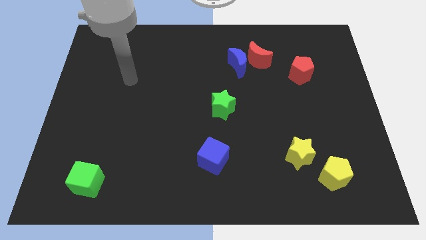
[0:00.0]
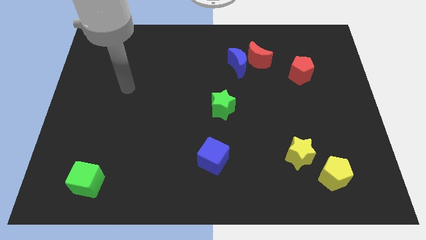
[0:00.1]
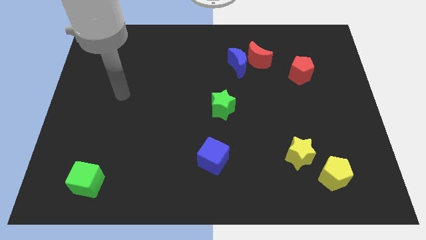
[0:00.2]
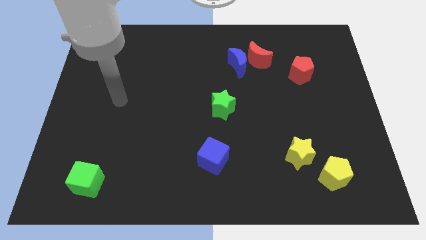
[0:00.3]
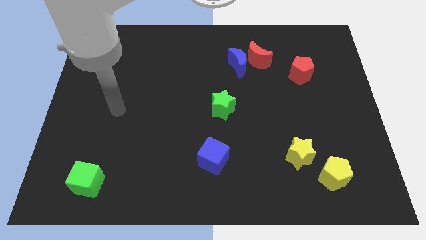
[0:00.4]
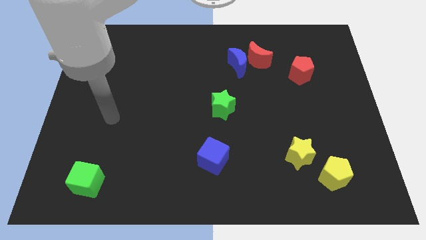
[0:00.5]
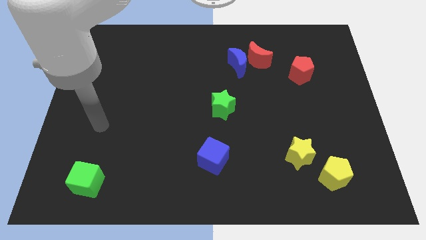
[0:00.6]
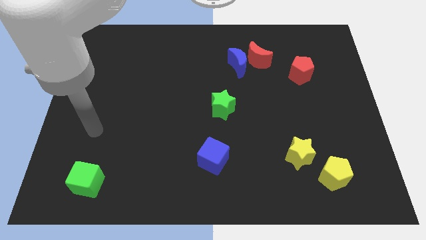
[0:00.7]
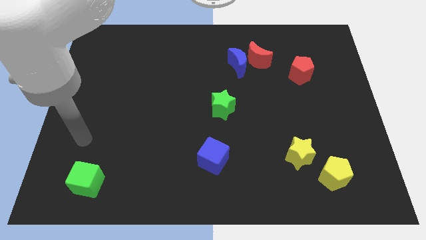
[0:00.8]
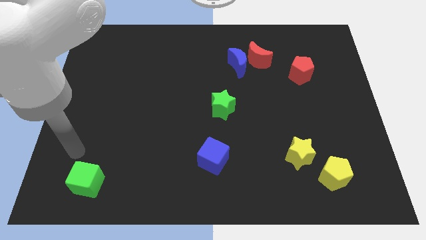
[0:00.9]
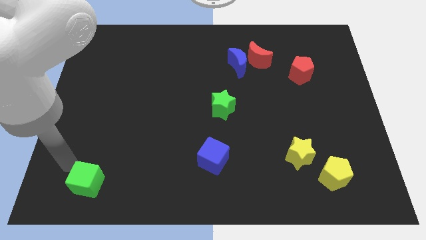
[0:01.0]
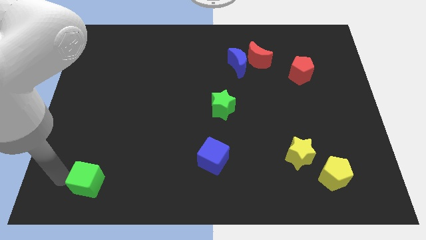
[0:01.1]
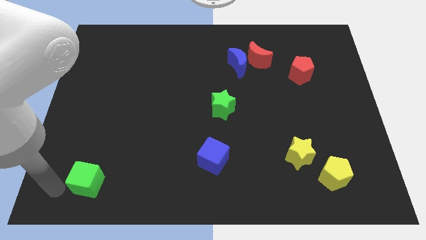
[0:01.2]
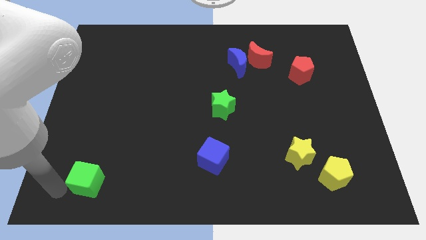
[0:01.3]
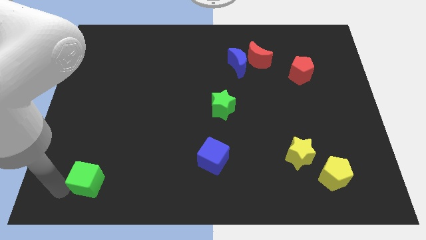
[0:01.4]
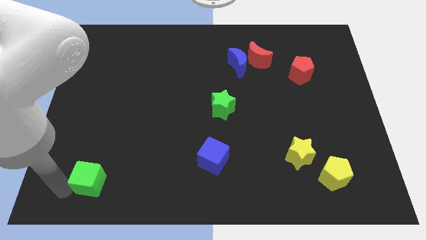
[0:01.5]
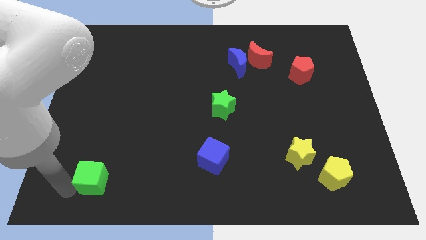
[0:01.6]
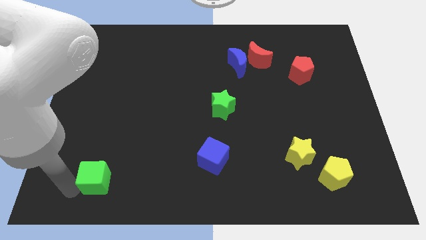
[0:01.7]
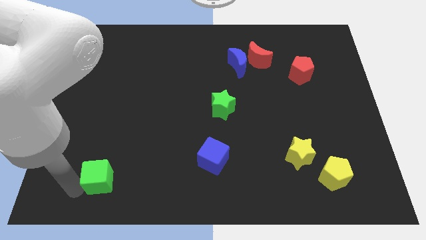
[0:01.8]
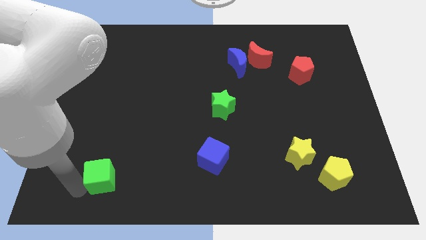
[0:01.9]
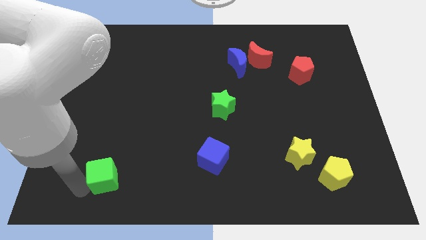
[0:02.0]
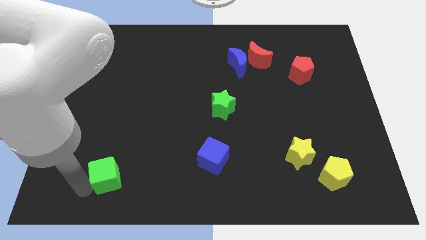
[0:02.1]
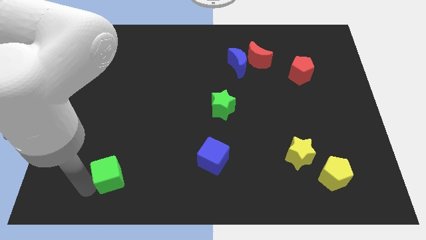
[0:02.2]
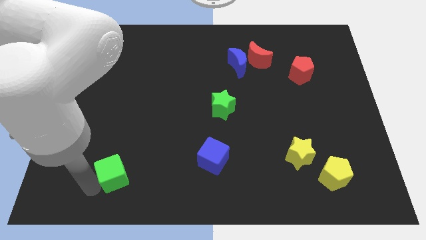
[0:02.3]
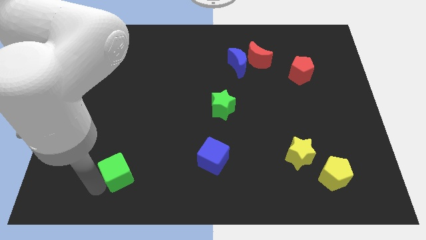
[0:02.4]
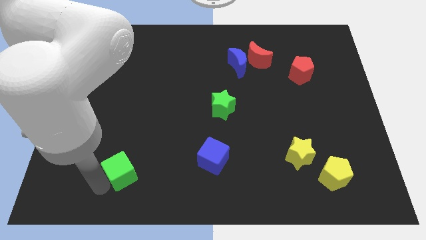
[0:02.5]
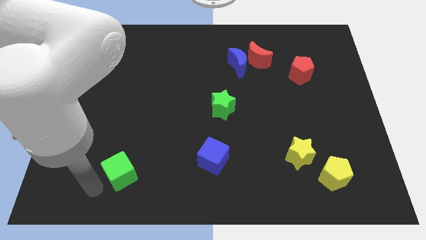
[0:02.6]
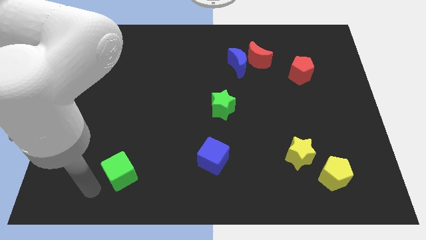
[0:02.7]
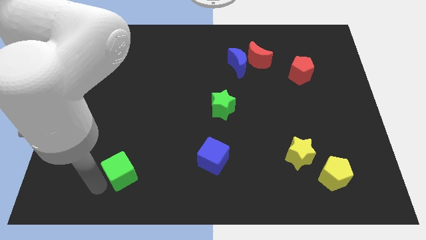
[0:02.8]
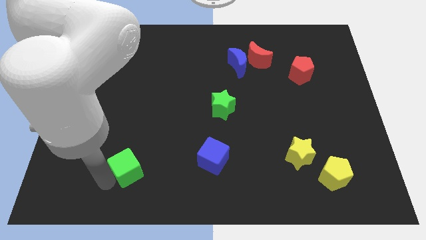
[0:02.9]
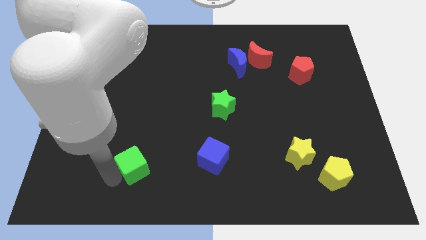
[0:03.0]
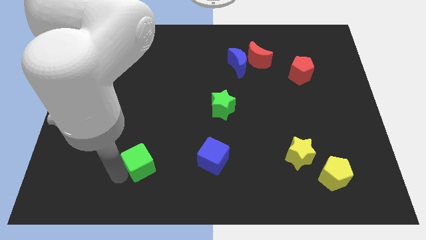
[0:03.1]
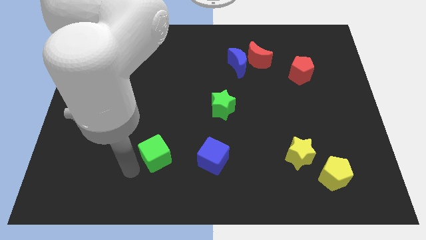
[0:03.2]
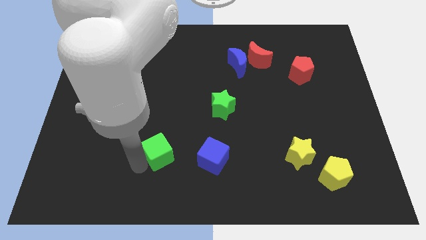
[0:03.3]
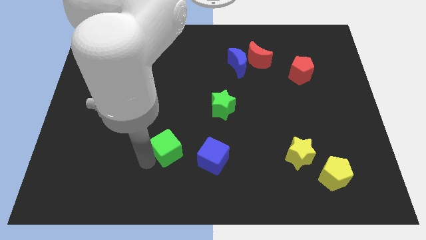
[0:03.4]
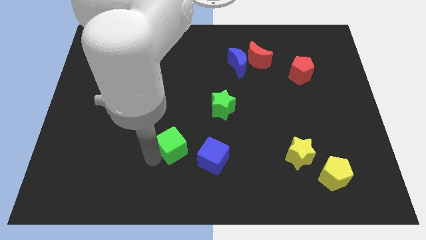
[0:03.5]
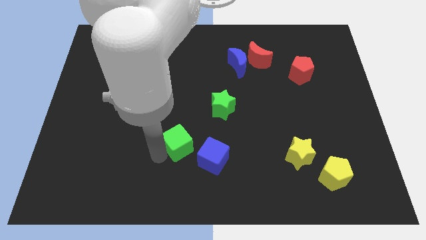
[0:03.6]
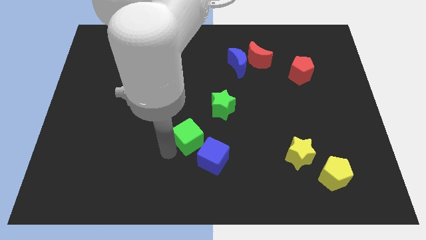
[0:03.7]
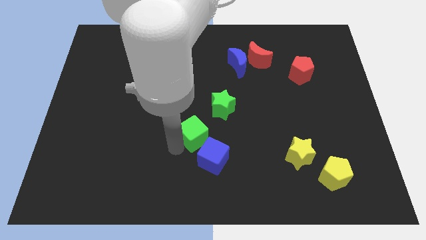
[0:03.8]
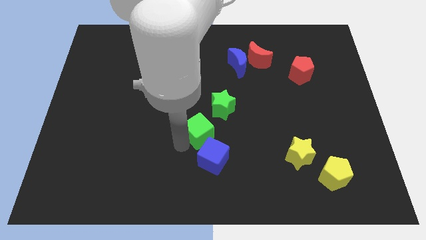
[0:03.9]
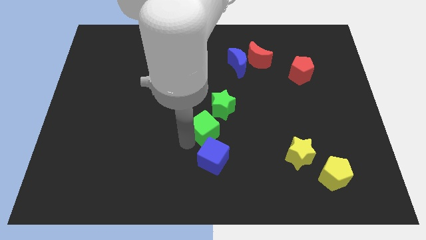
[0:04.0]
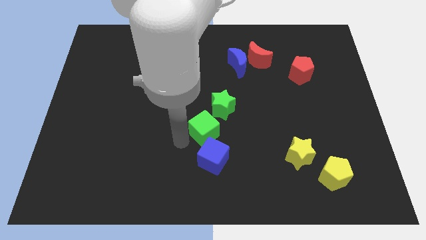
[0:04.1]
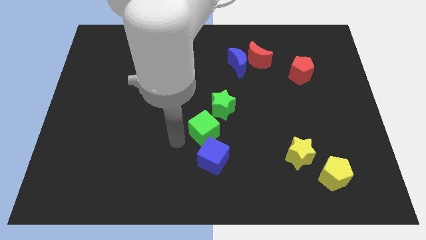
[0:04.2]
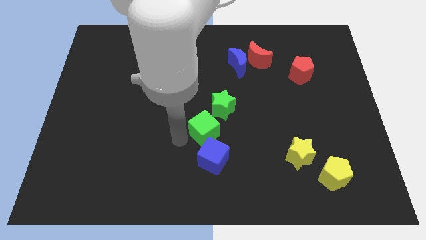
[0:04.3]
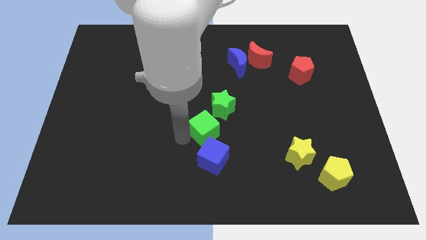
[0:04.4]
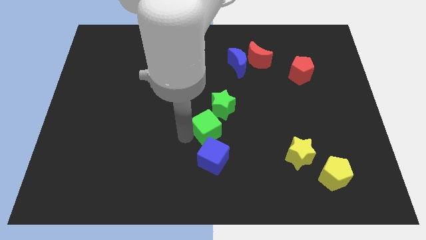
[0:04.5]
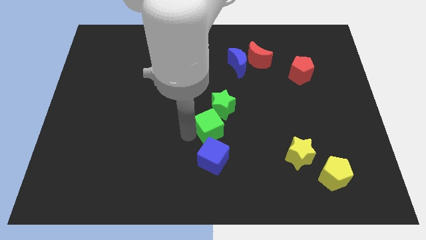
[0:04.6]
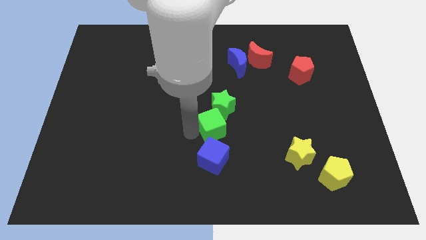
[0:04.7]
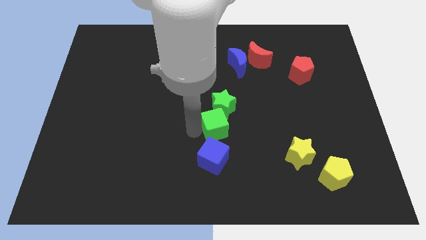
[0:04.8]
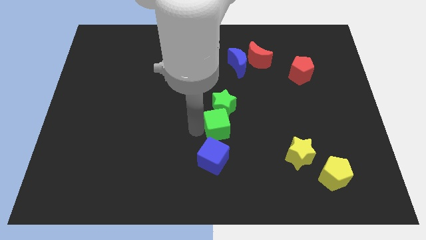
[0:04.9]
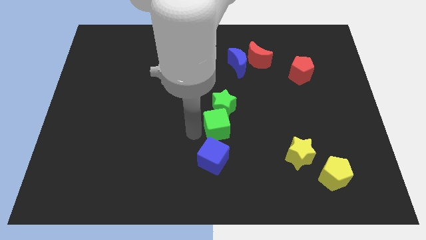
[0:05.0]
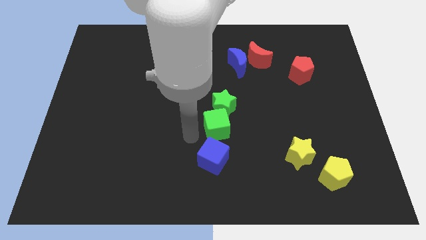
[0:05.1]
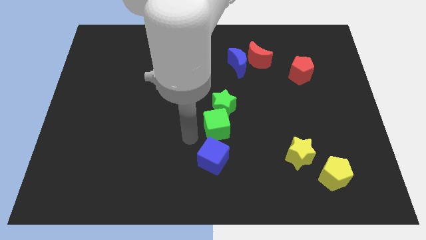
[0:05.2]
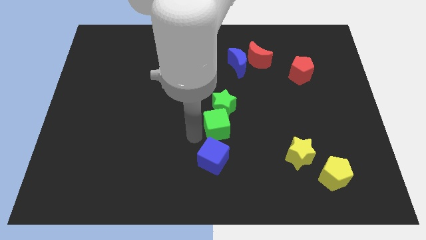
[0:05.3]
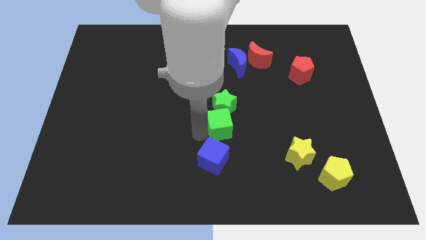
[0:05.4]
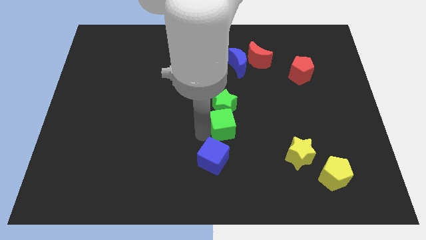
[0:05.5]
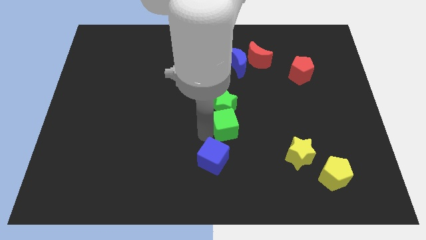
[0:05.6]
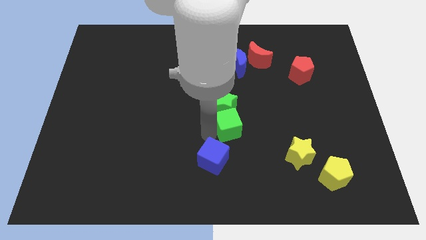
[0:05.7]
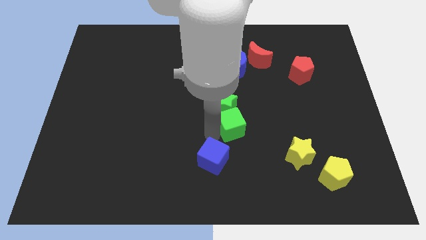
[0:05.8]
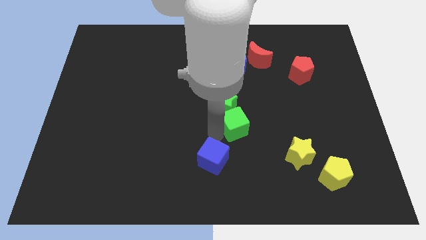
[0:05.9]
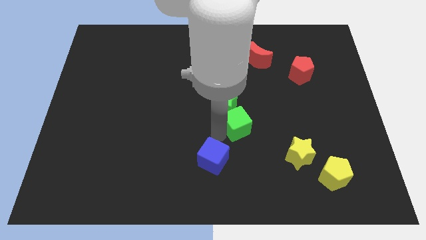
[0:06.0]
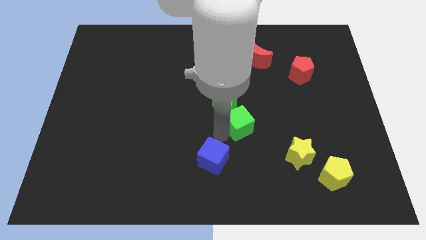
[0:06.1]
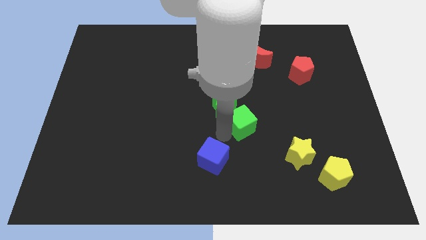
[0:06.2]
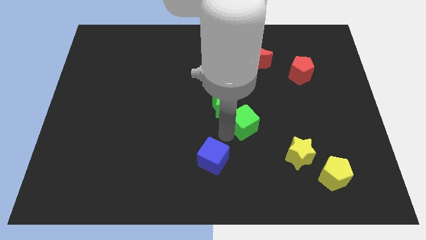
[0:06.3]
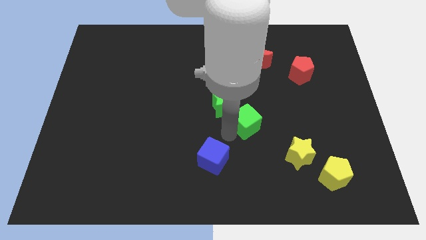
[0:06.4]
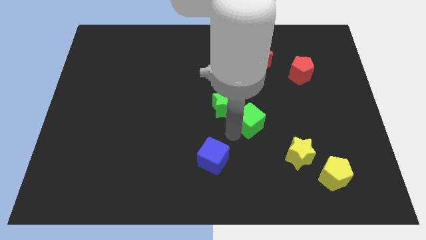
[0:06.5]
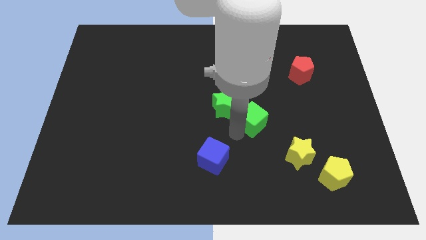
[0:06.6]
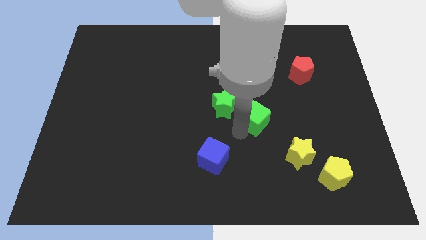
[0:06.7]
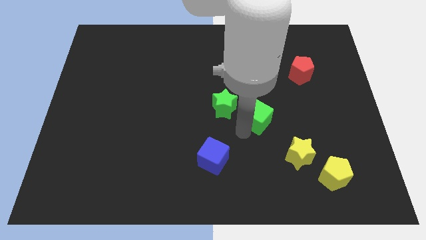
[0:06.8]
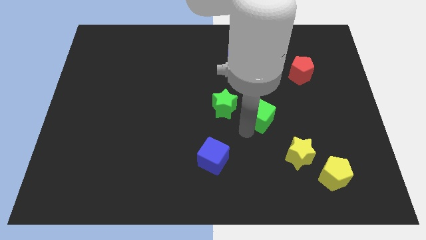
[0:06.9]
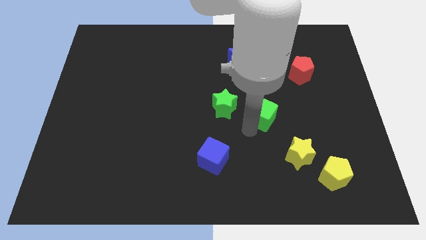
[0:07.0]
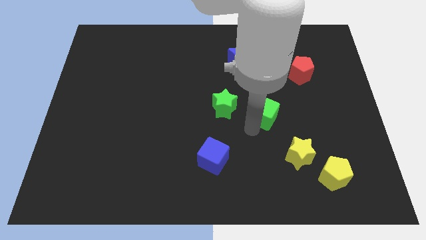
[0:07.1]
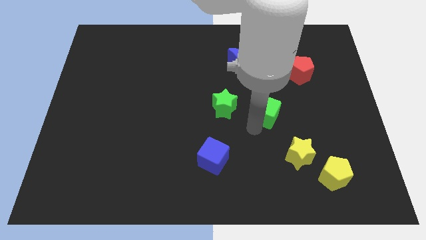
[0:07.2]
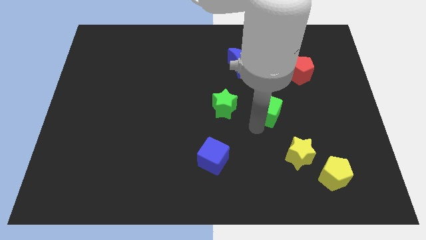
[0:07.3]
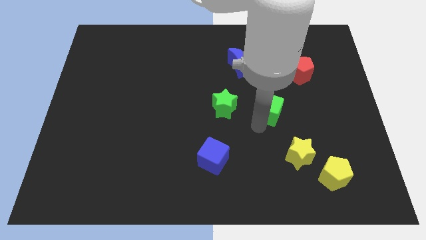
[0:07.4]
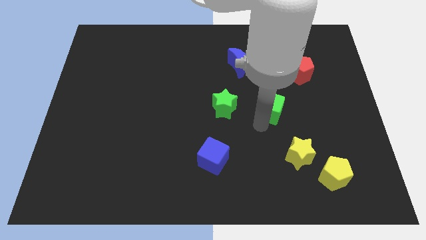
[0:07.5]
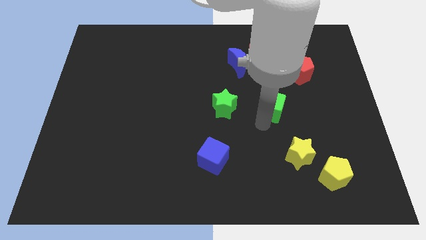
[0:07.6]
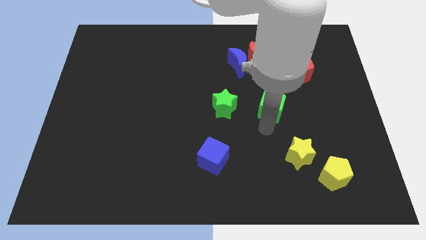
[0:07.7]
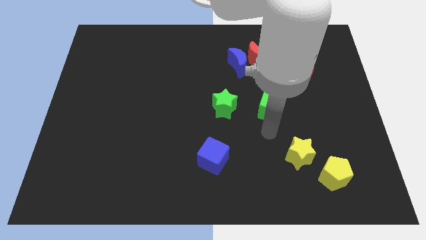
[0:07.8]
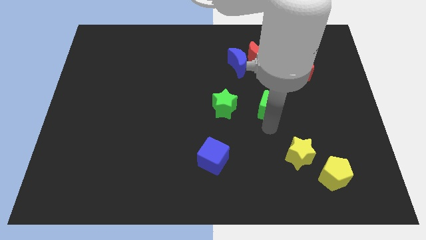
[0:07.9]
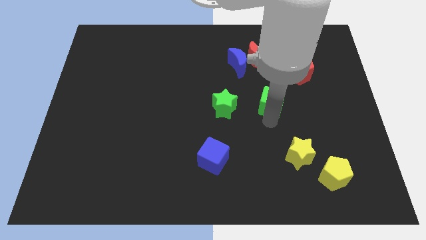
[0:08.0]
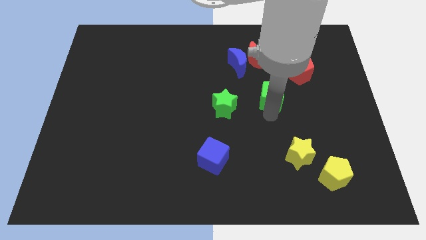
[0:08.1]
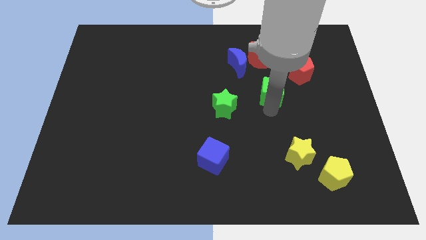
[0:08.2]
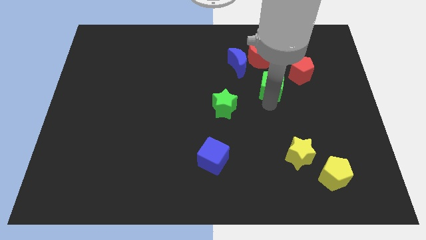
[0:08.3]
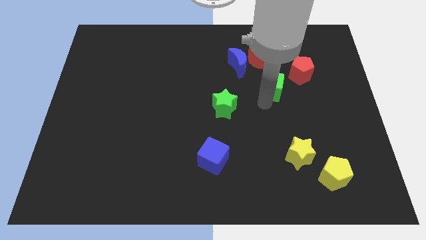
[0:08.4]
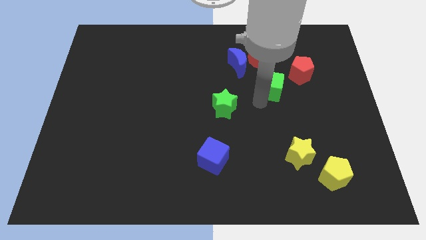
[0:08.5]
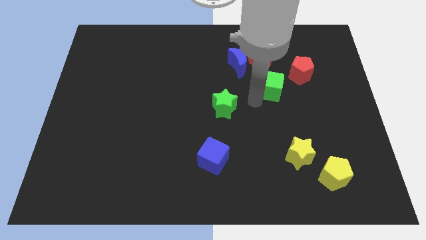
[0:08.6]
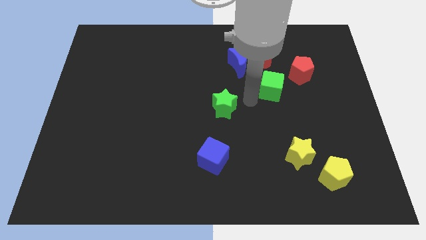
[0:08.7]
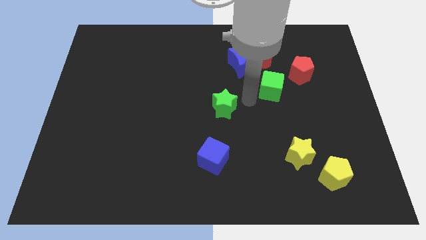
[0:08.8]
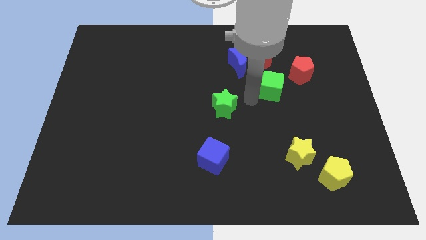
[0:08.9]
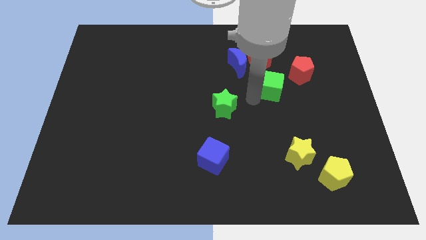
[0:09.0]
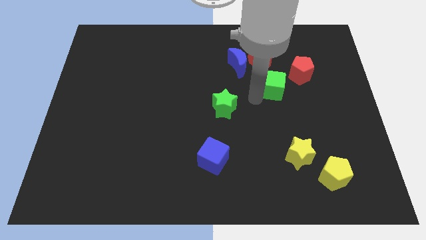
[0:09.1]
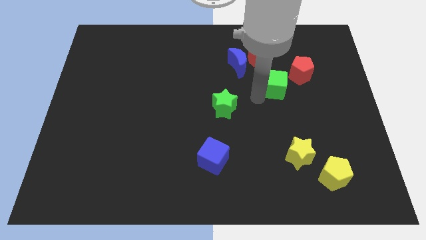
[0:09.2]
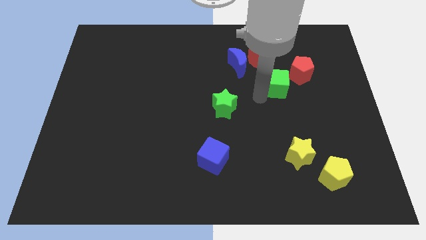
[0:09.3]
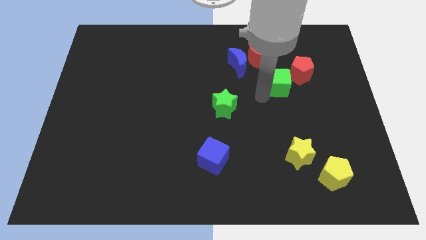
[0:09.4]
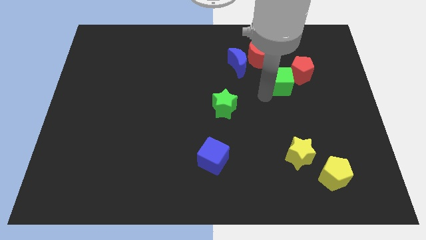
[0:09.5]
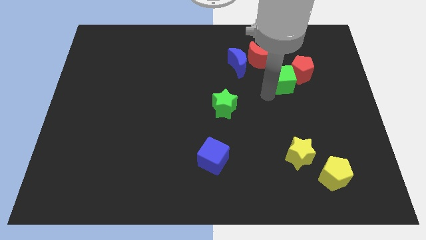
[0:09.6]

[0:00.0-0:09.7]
push the green cube close to the red pentagon
